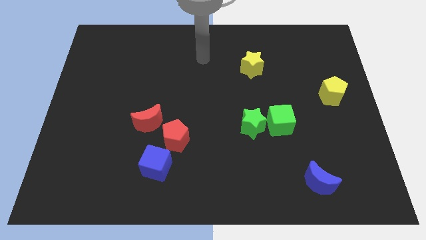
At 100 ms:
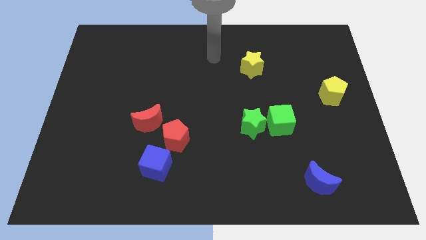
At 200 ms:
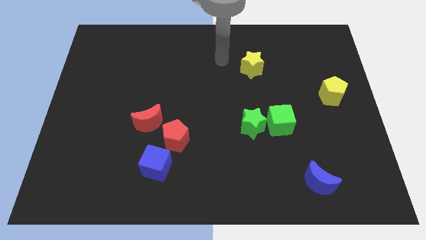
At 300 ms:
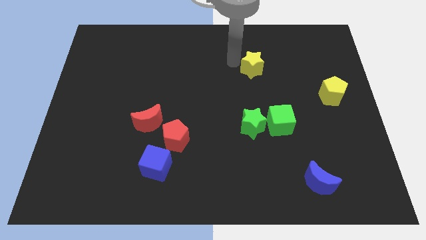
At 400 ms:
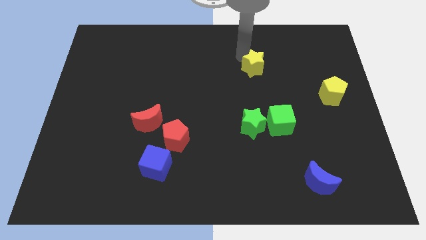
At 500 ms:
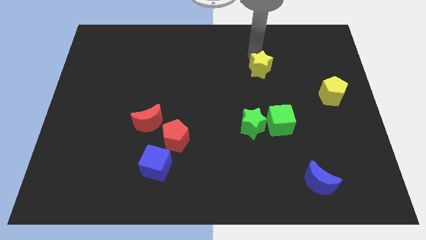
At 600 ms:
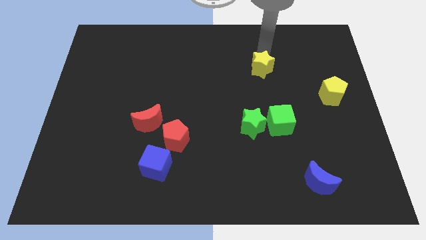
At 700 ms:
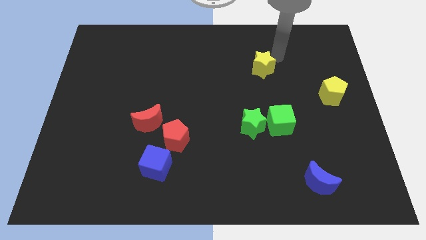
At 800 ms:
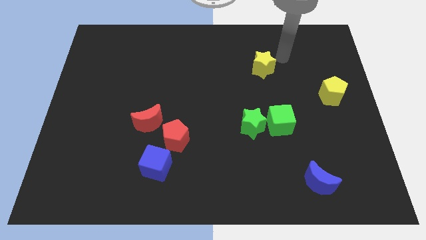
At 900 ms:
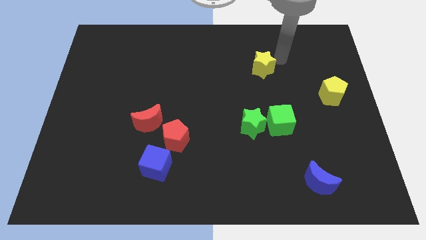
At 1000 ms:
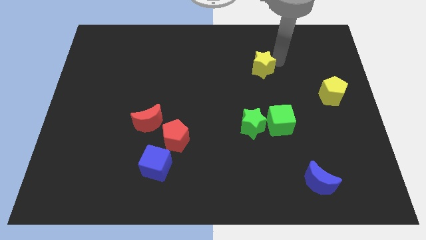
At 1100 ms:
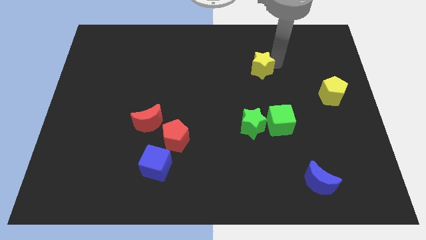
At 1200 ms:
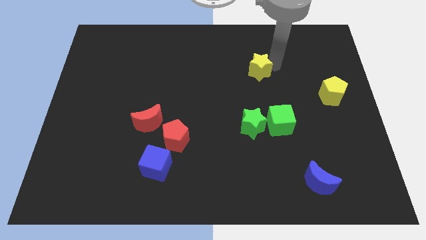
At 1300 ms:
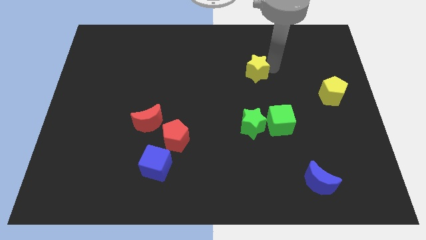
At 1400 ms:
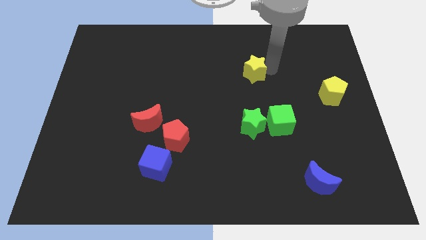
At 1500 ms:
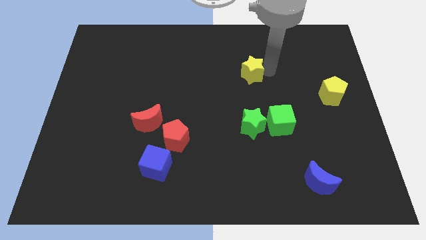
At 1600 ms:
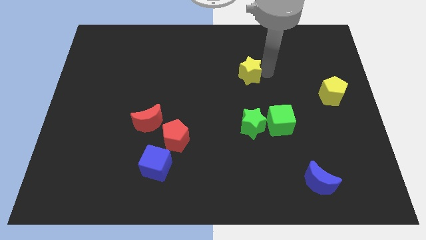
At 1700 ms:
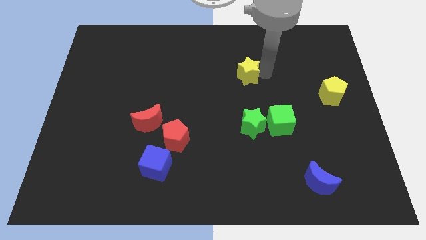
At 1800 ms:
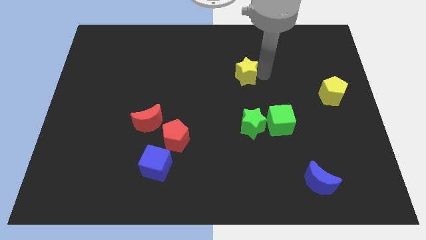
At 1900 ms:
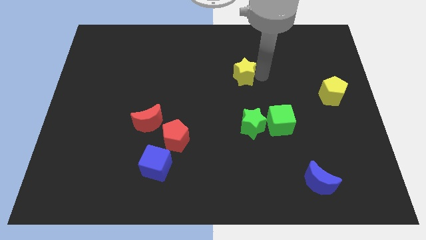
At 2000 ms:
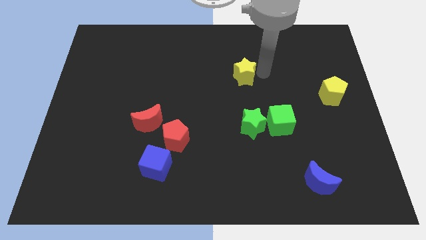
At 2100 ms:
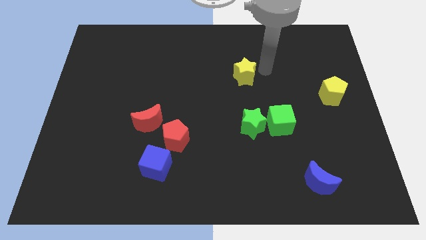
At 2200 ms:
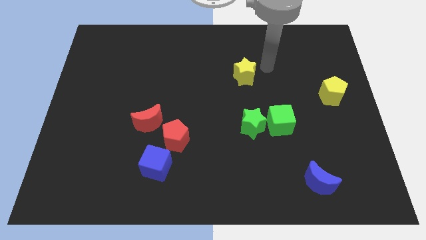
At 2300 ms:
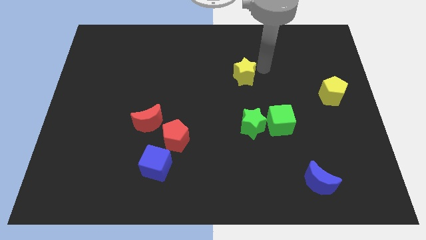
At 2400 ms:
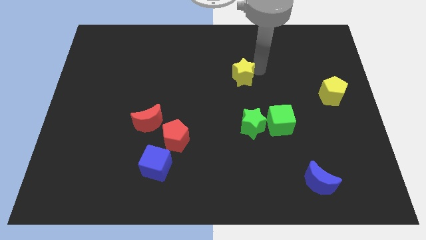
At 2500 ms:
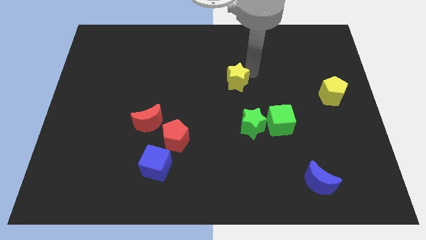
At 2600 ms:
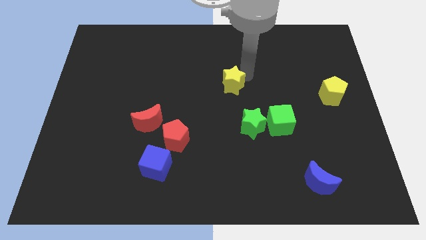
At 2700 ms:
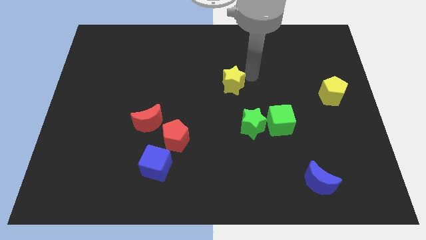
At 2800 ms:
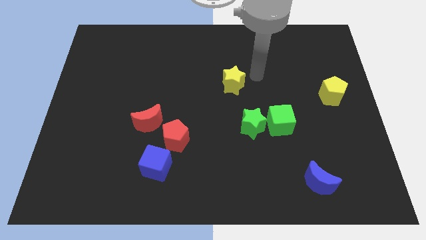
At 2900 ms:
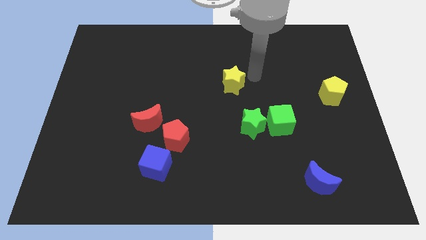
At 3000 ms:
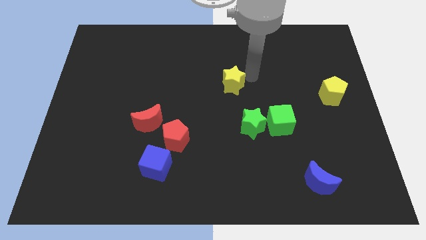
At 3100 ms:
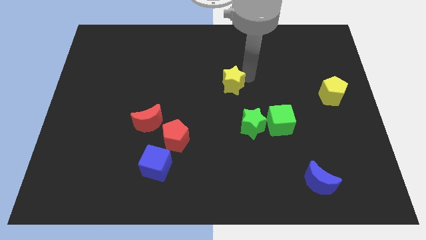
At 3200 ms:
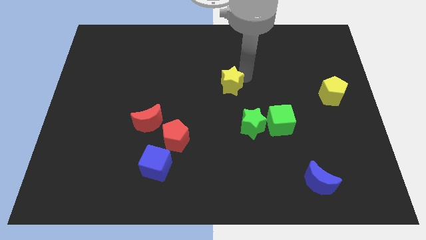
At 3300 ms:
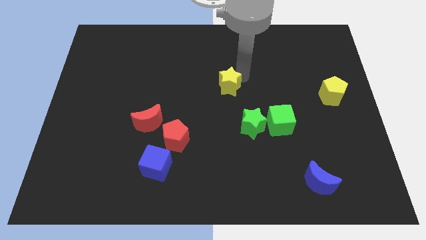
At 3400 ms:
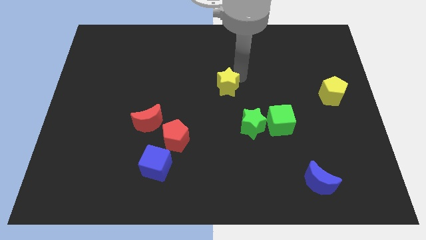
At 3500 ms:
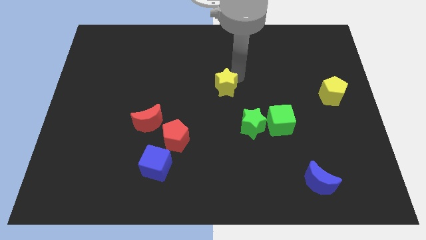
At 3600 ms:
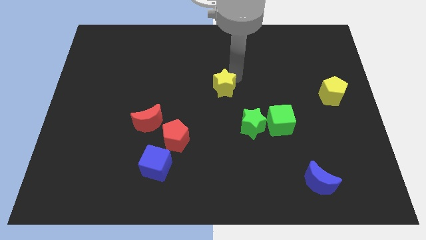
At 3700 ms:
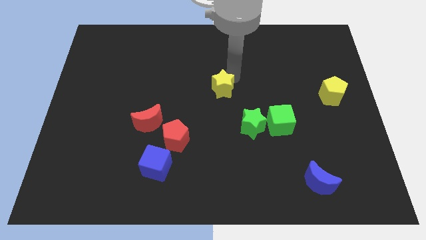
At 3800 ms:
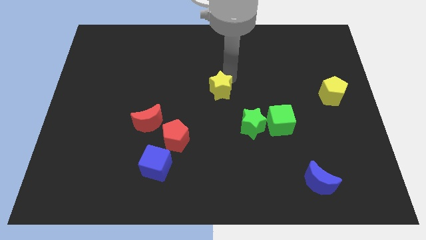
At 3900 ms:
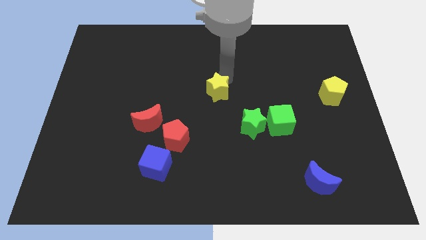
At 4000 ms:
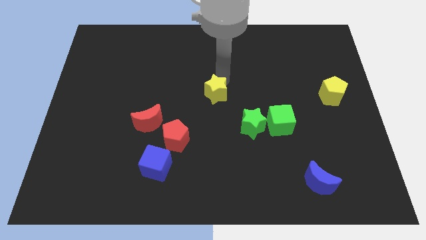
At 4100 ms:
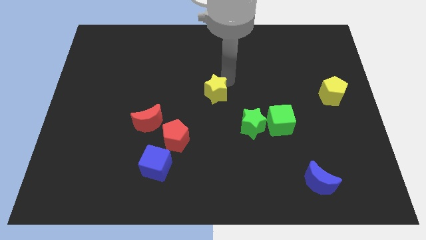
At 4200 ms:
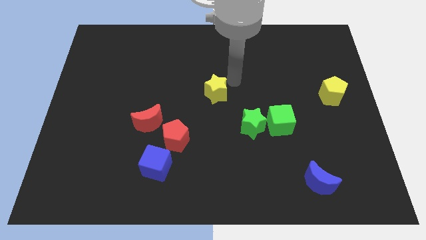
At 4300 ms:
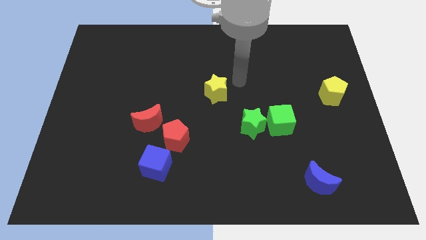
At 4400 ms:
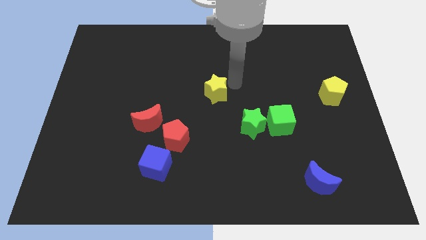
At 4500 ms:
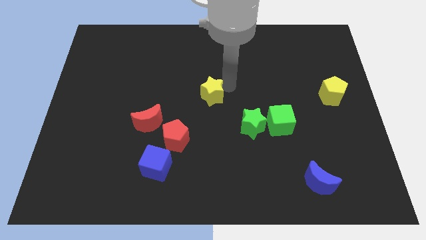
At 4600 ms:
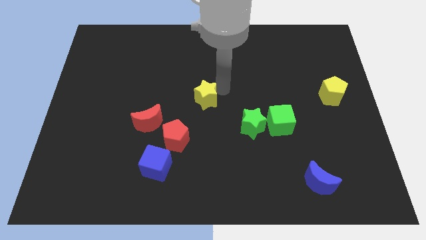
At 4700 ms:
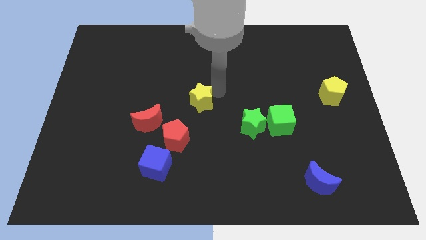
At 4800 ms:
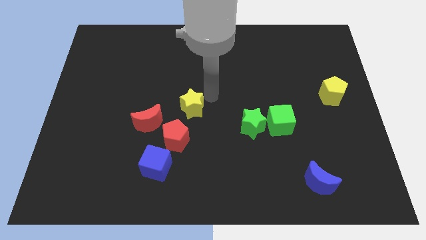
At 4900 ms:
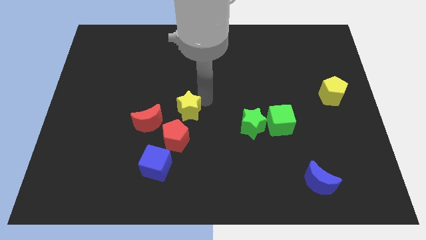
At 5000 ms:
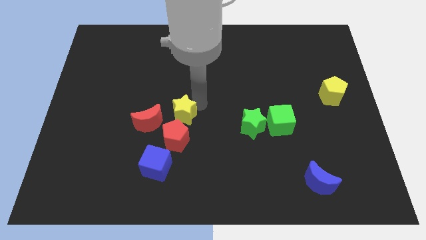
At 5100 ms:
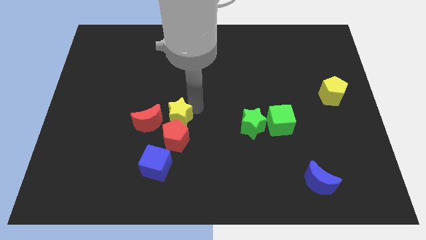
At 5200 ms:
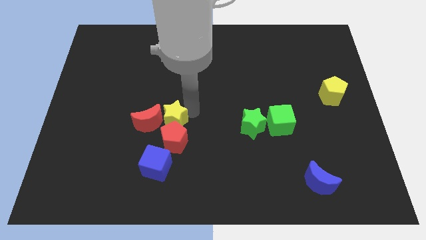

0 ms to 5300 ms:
slide the yellow star towards the red moon

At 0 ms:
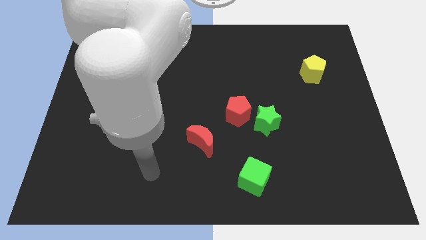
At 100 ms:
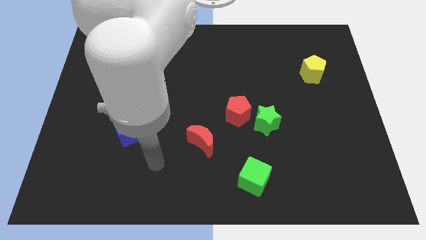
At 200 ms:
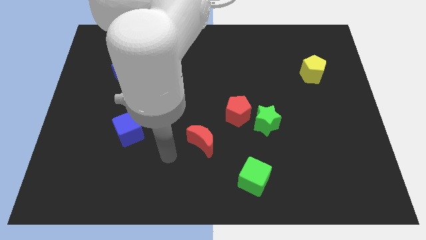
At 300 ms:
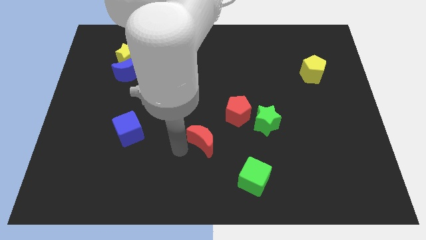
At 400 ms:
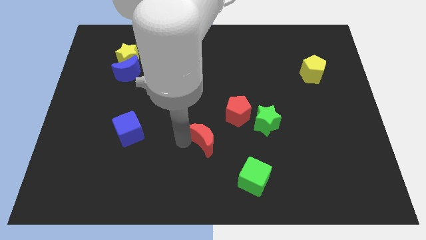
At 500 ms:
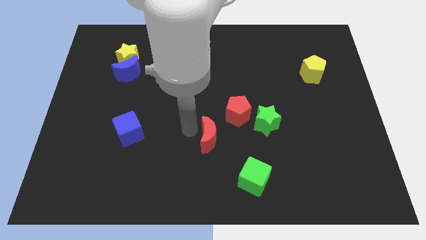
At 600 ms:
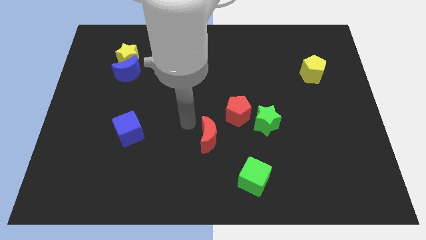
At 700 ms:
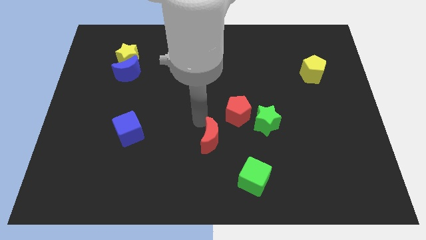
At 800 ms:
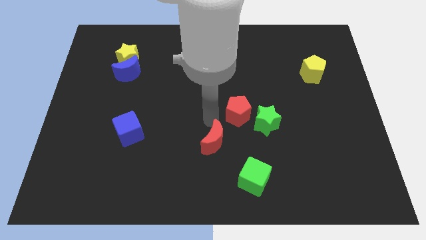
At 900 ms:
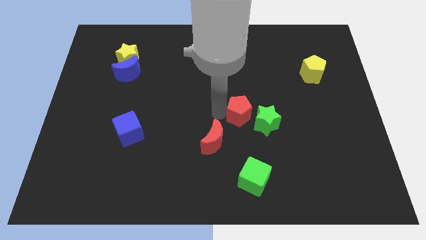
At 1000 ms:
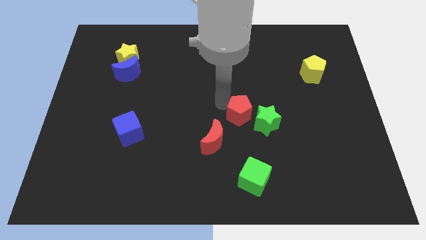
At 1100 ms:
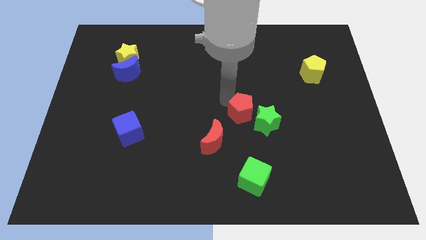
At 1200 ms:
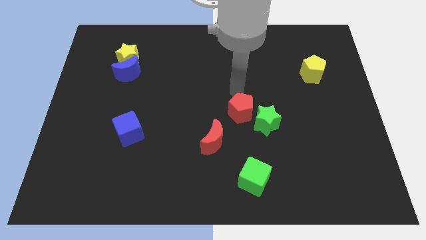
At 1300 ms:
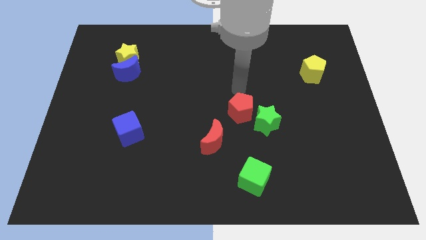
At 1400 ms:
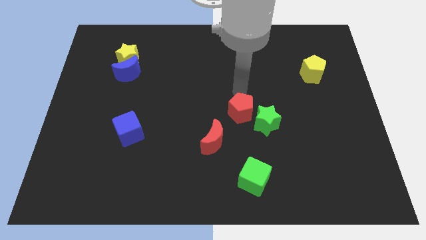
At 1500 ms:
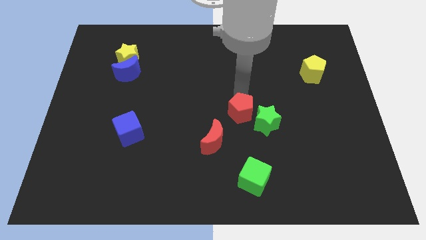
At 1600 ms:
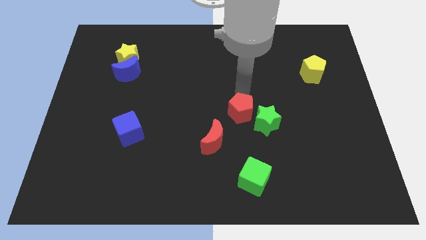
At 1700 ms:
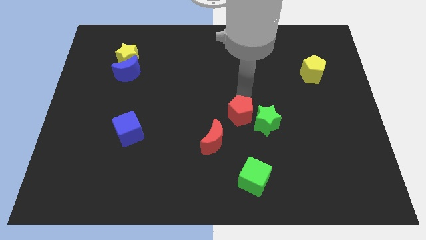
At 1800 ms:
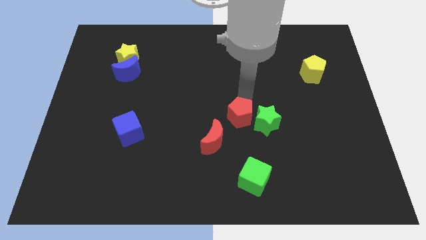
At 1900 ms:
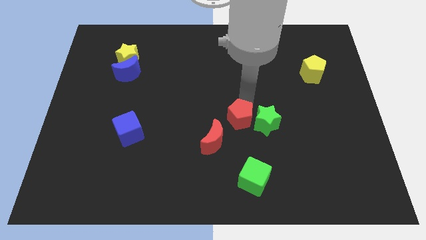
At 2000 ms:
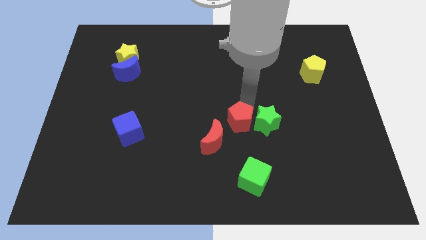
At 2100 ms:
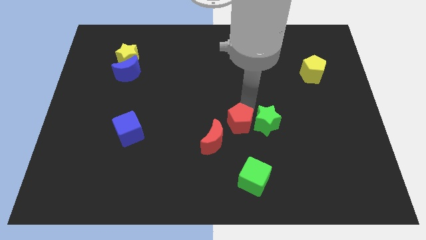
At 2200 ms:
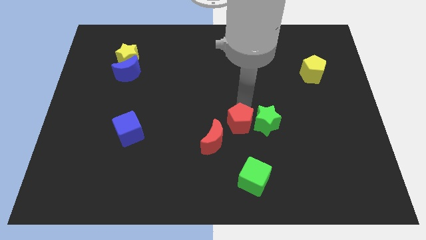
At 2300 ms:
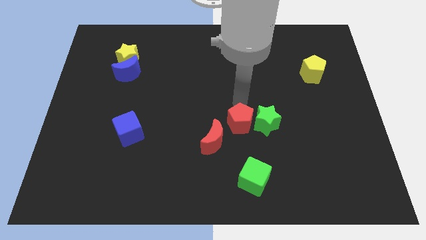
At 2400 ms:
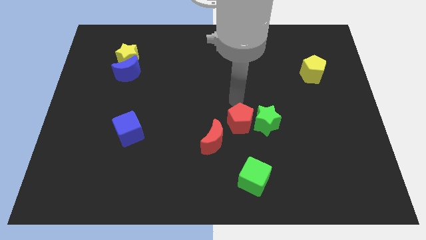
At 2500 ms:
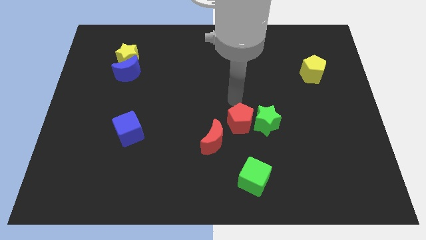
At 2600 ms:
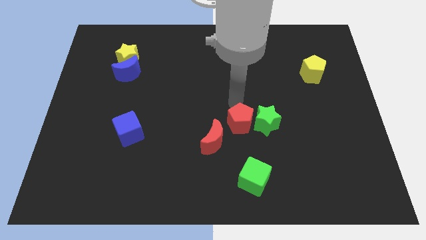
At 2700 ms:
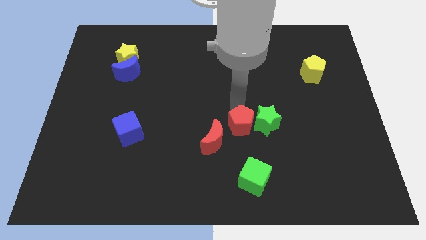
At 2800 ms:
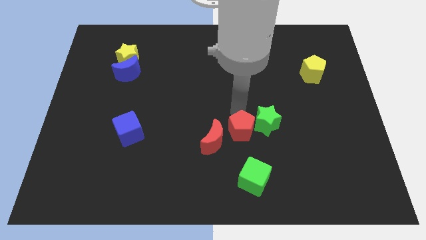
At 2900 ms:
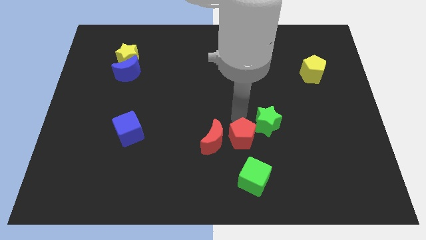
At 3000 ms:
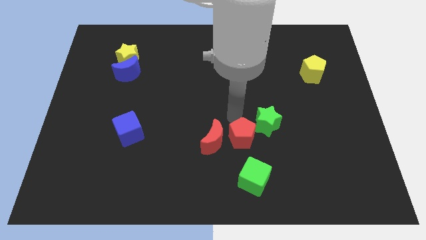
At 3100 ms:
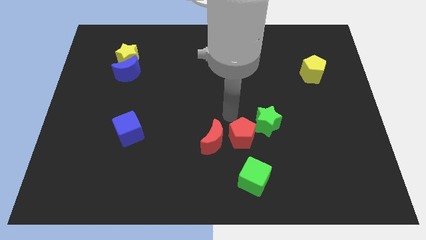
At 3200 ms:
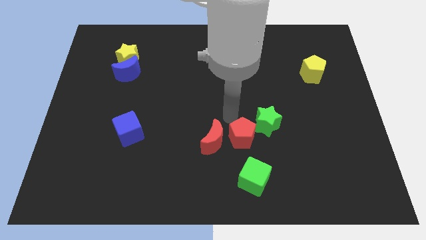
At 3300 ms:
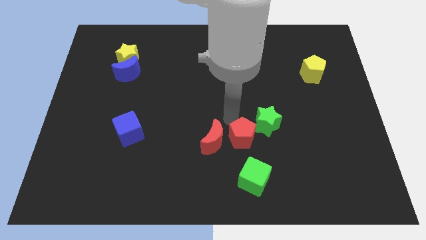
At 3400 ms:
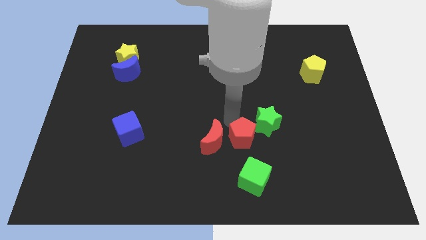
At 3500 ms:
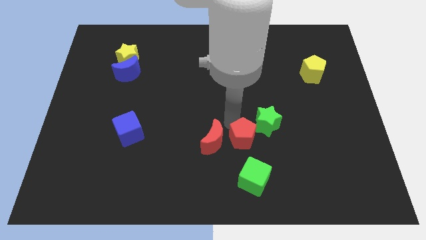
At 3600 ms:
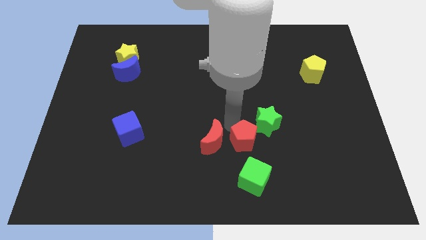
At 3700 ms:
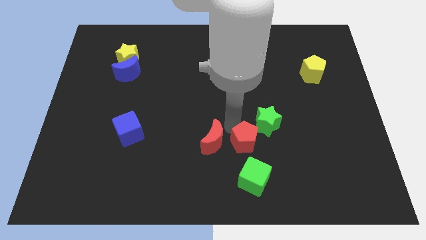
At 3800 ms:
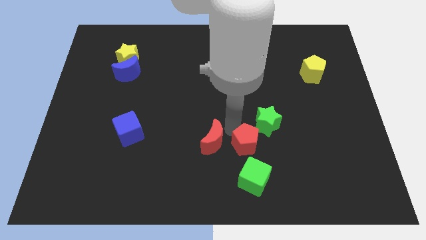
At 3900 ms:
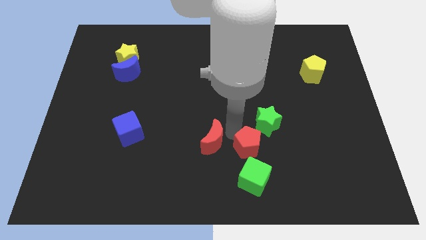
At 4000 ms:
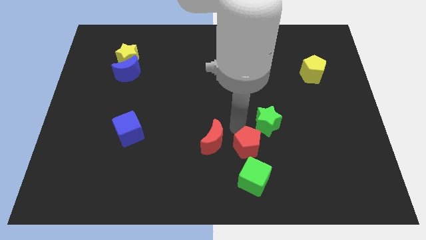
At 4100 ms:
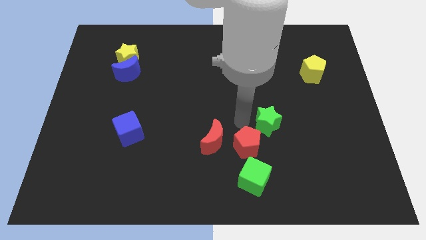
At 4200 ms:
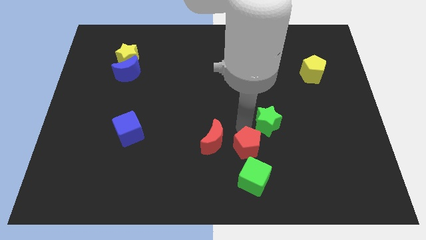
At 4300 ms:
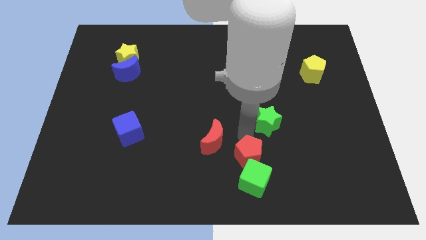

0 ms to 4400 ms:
move the red pentagon next to the green cube
